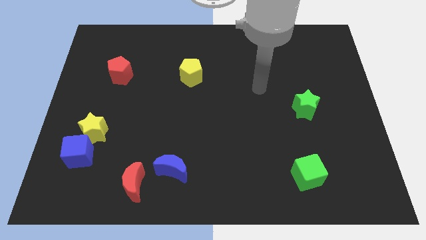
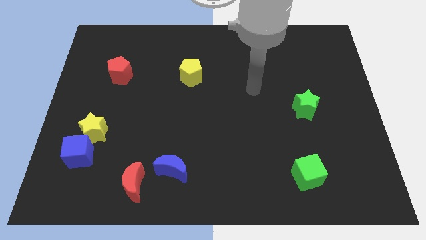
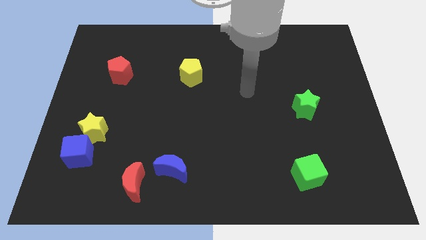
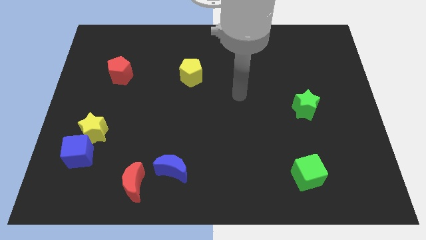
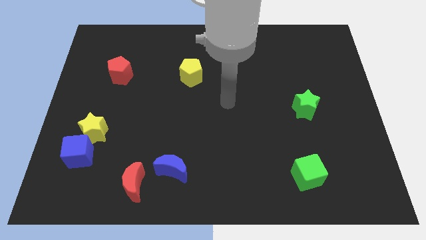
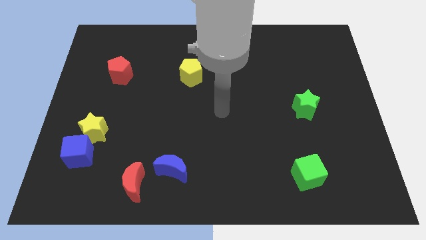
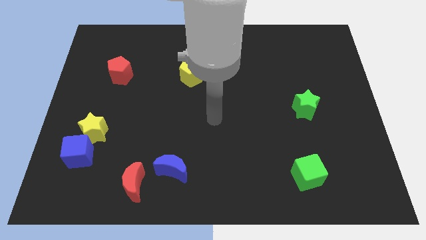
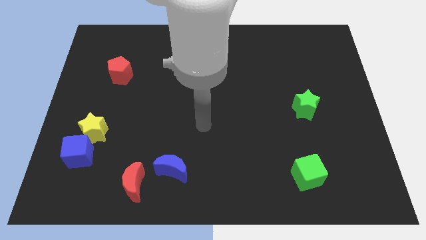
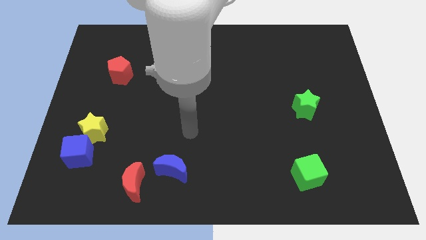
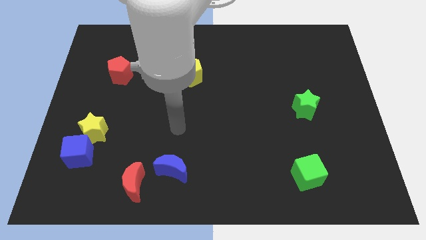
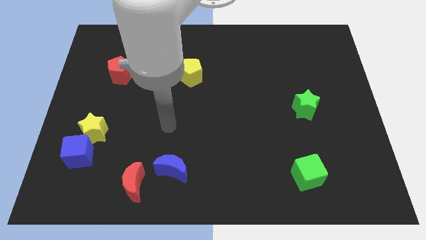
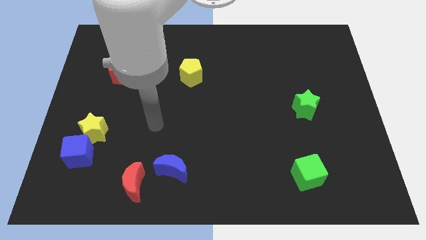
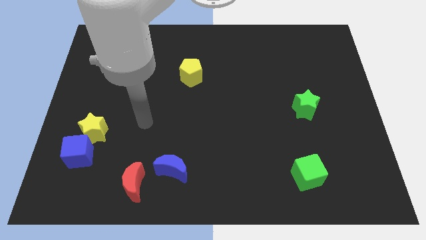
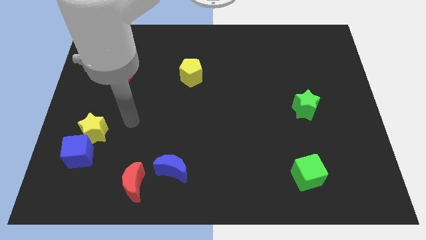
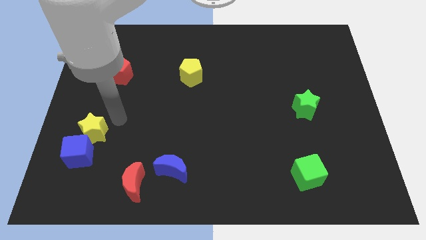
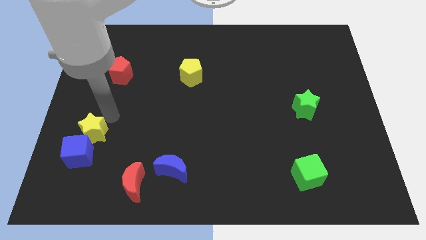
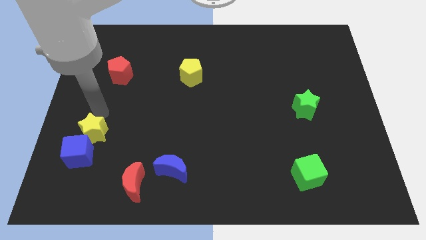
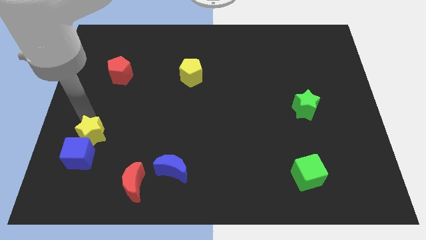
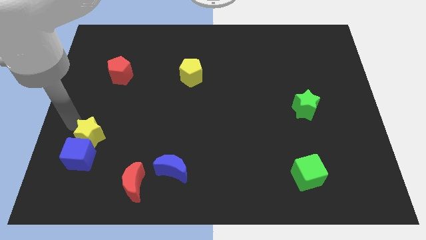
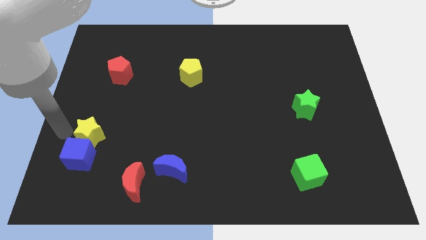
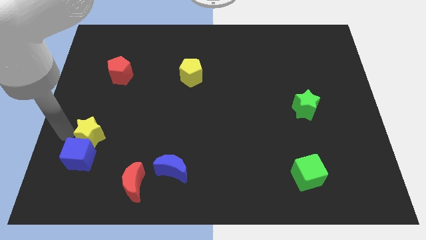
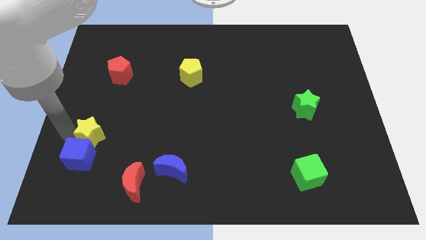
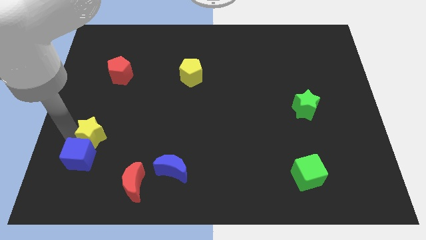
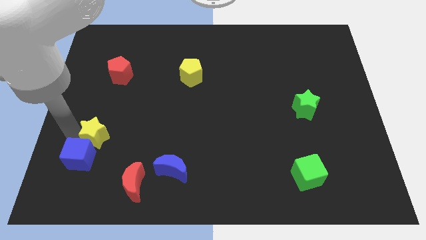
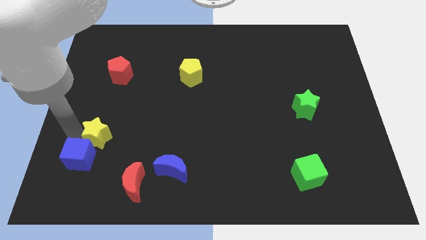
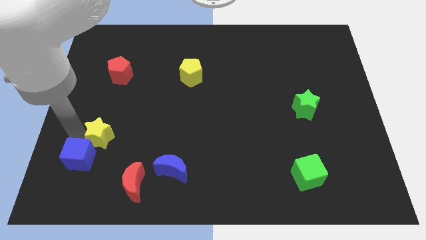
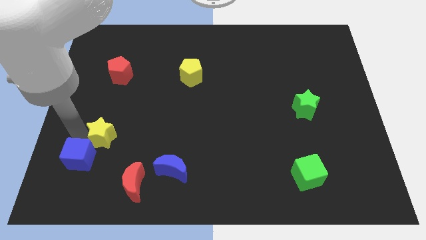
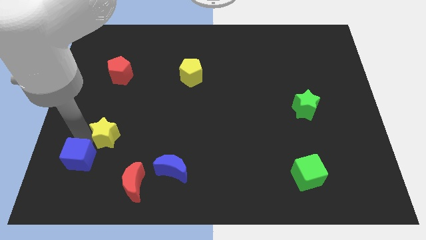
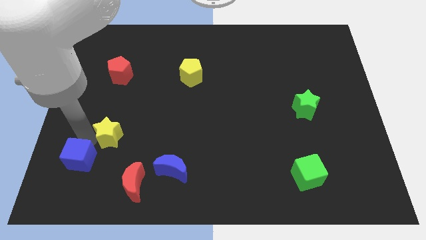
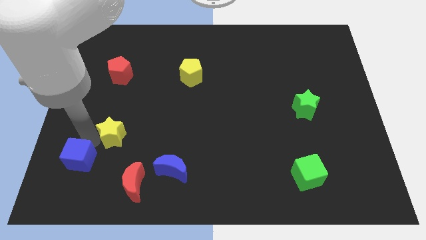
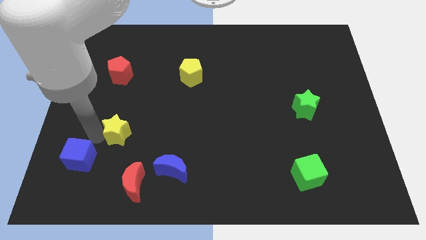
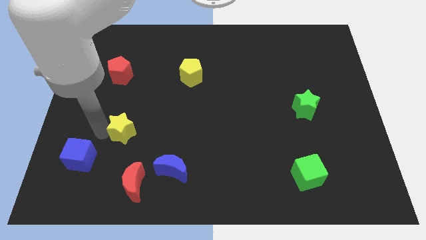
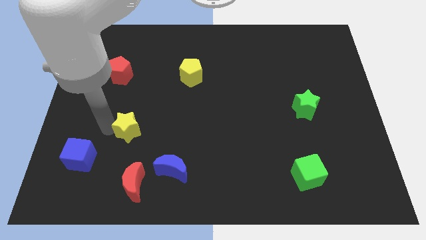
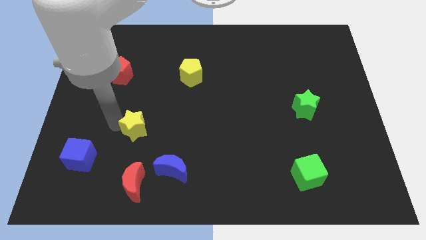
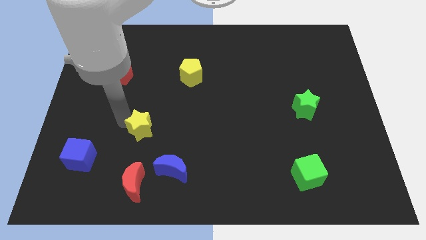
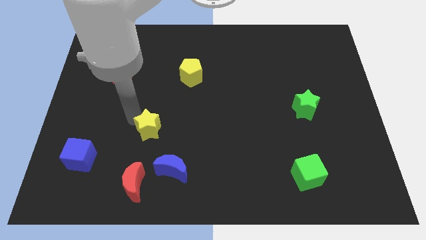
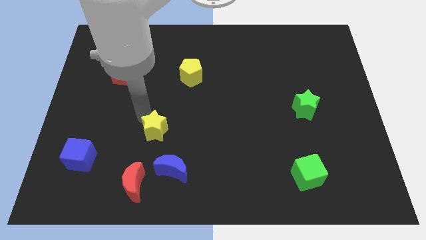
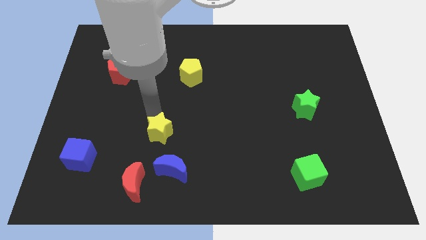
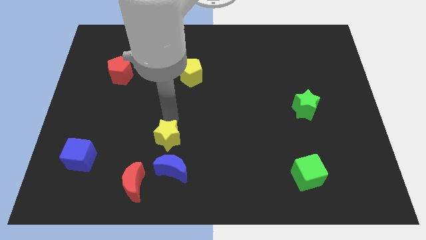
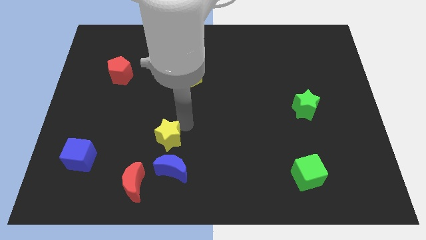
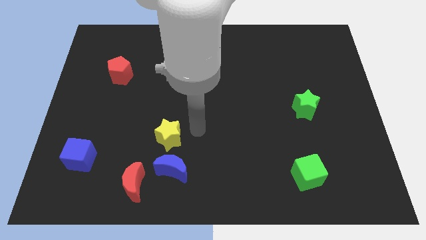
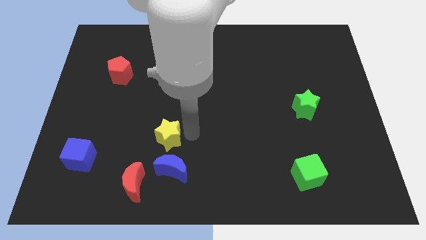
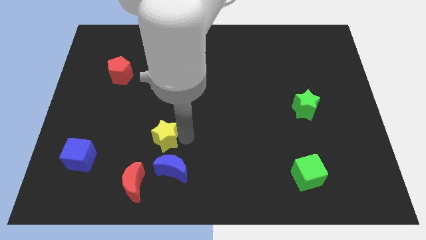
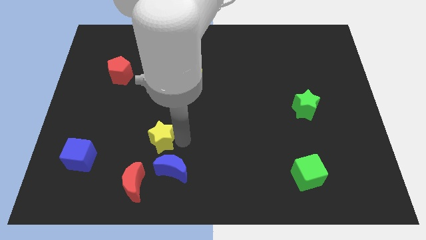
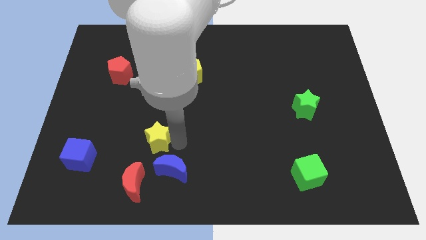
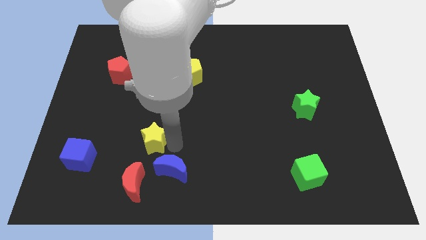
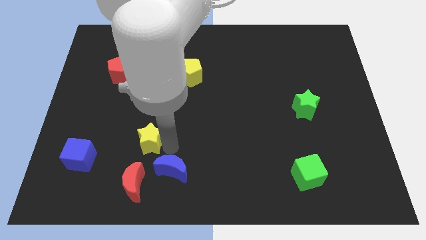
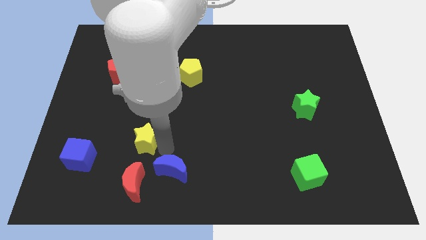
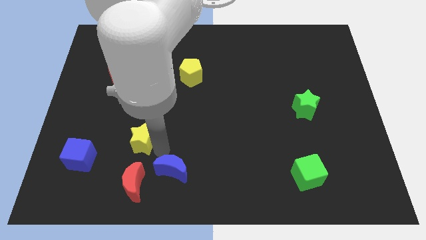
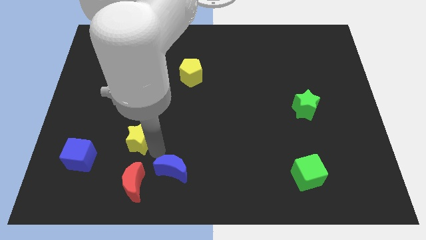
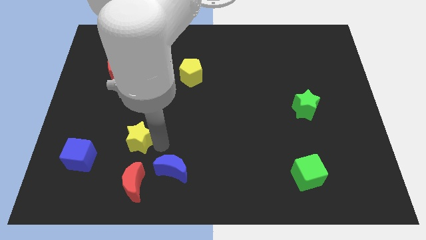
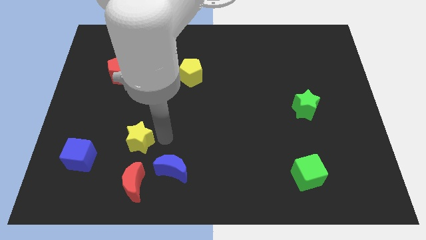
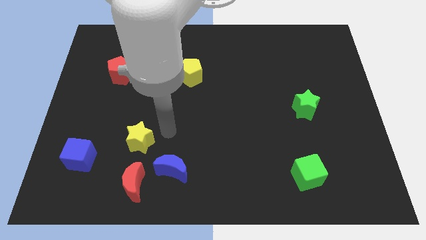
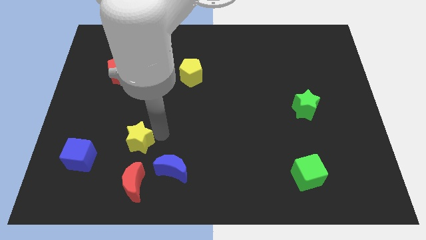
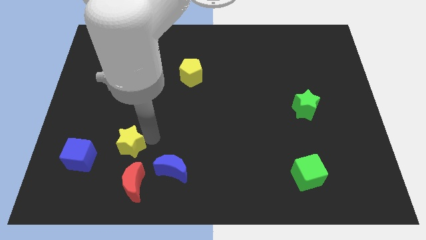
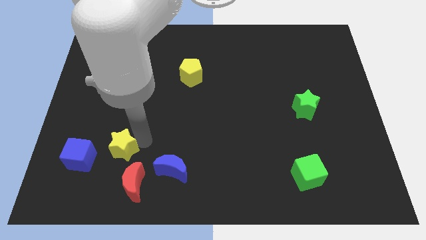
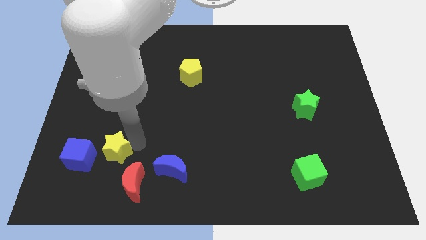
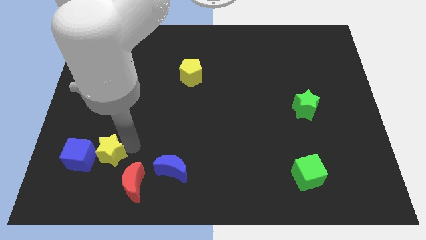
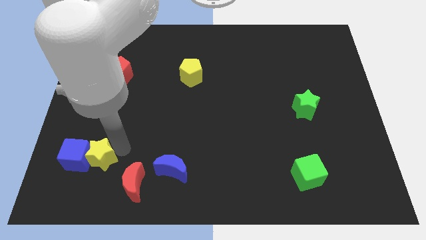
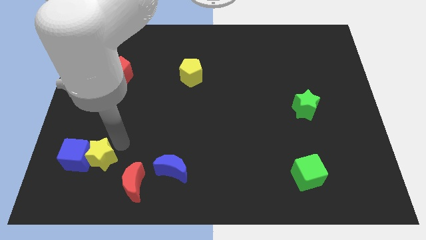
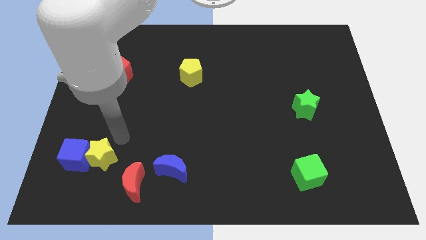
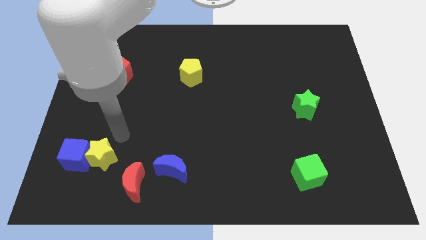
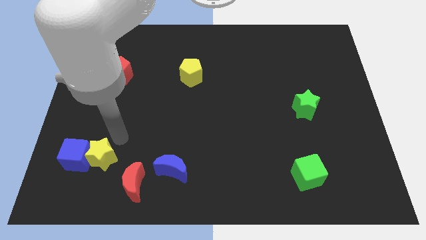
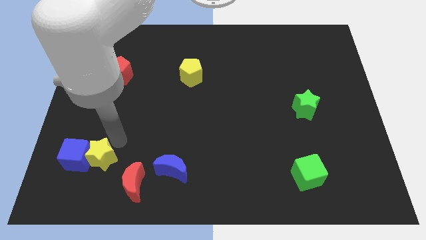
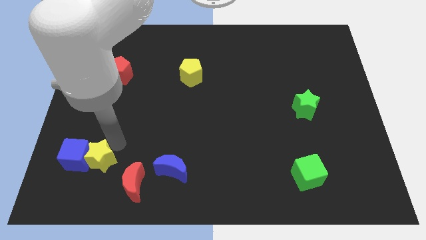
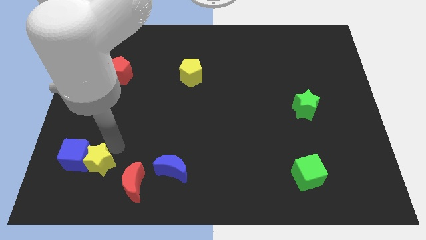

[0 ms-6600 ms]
move the yellow star just left of the red moon
